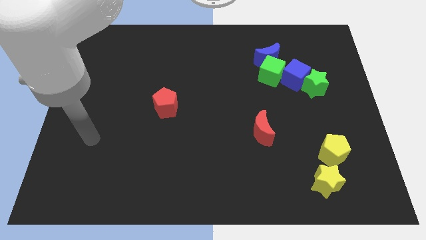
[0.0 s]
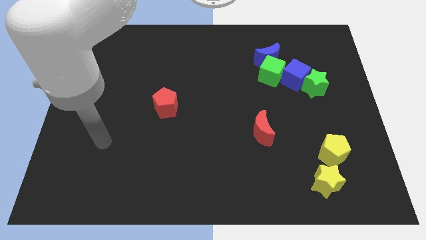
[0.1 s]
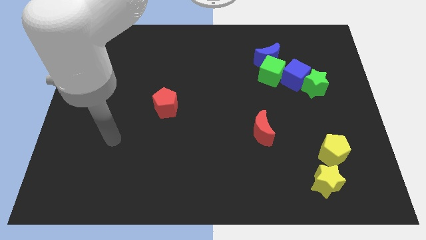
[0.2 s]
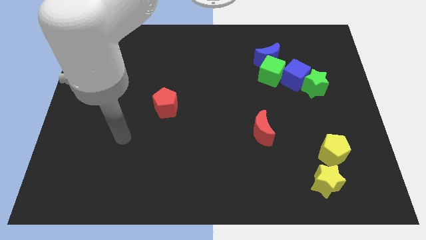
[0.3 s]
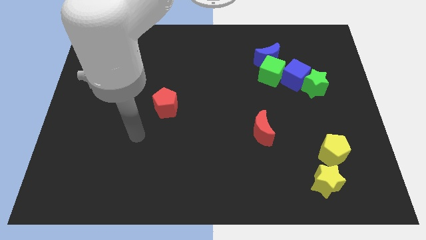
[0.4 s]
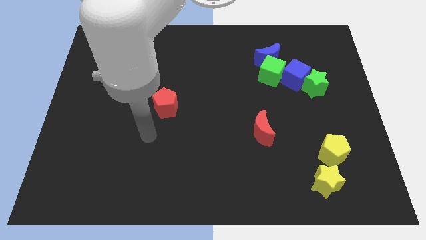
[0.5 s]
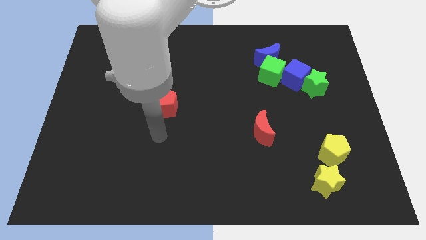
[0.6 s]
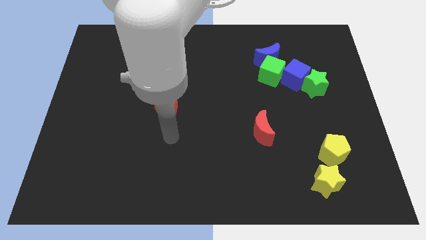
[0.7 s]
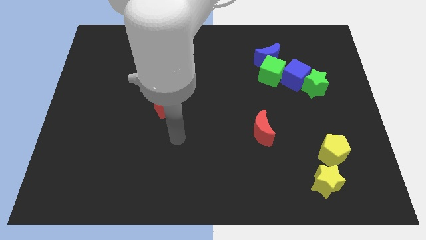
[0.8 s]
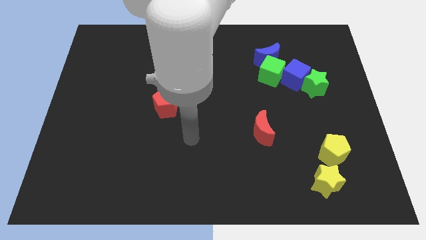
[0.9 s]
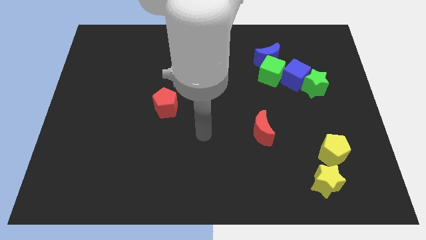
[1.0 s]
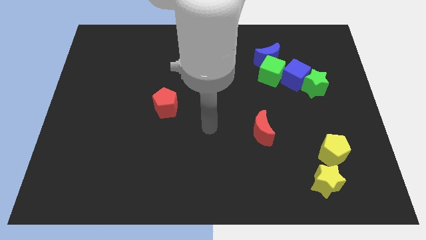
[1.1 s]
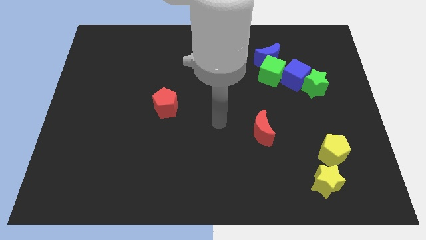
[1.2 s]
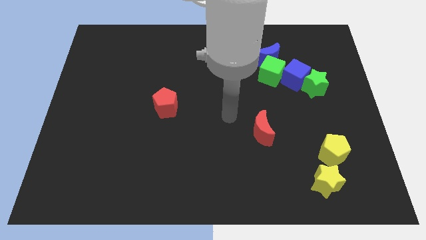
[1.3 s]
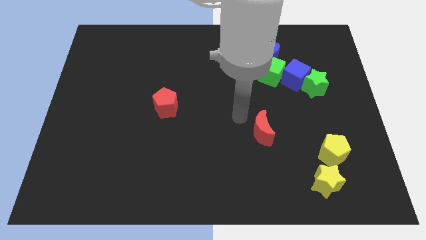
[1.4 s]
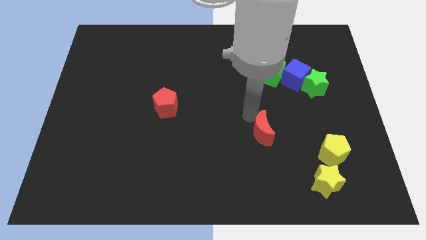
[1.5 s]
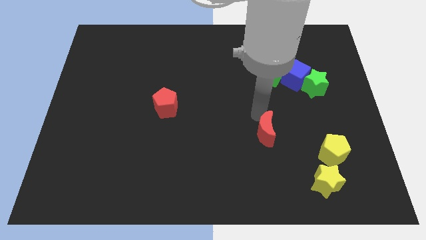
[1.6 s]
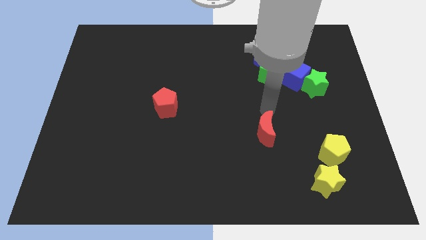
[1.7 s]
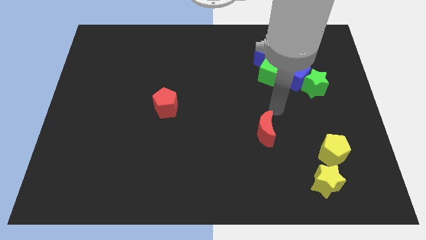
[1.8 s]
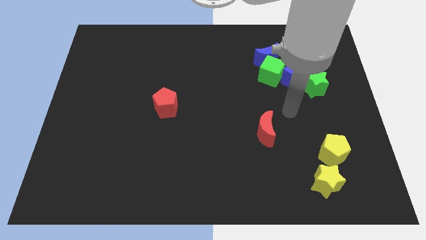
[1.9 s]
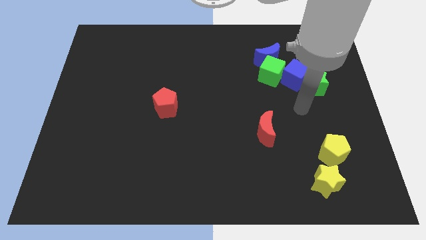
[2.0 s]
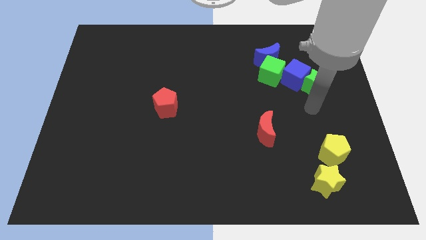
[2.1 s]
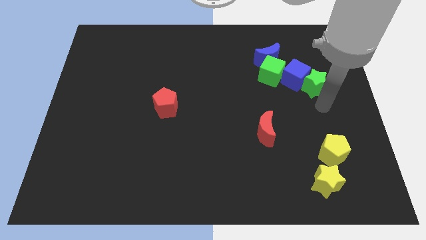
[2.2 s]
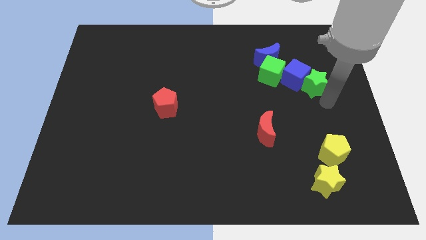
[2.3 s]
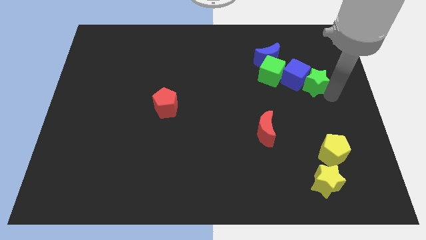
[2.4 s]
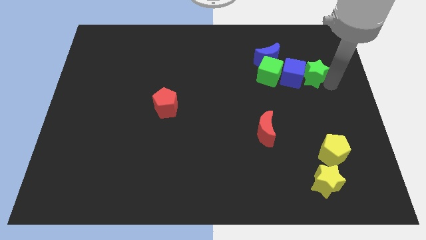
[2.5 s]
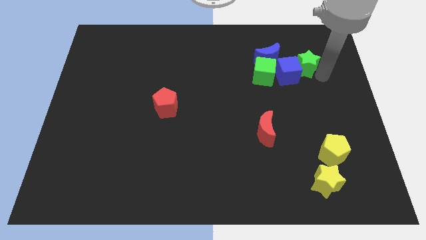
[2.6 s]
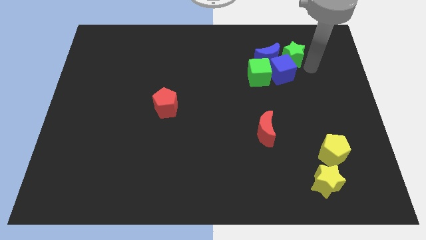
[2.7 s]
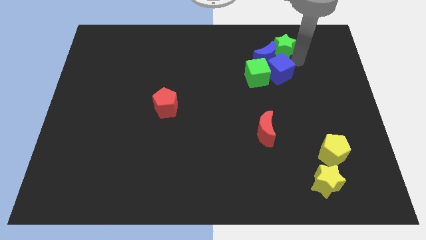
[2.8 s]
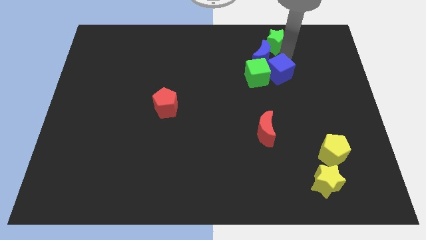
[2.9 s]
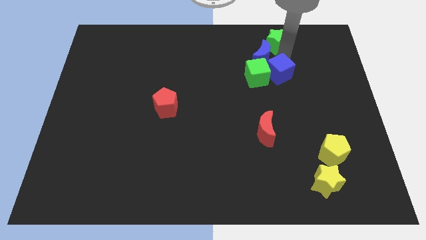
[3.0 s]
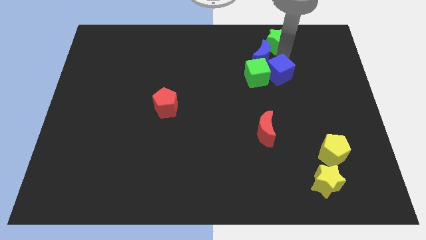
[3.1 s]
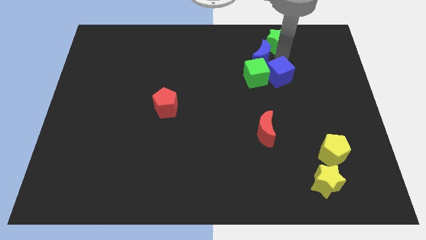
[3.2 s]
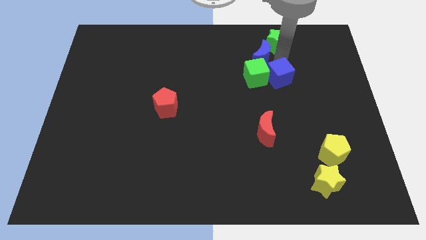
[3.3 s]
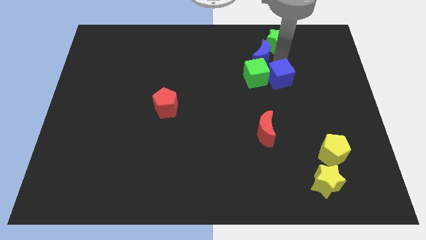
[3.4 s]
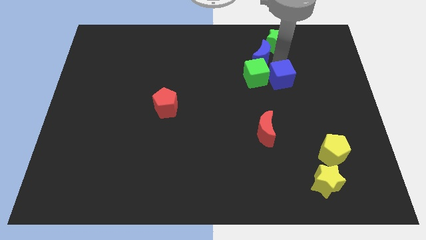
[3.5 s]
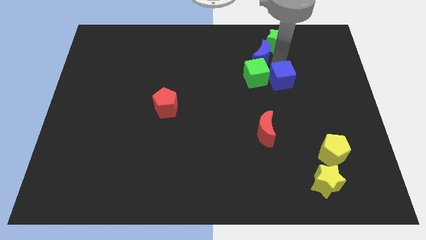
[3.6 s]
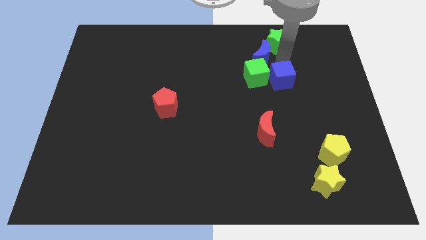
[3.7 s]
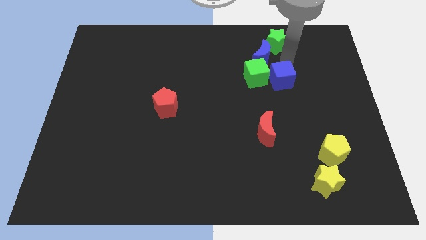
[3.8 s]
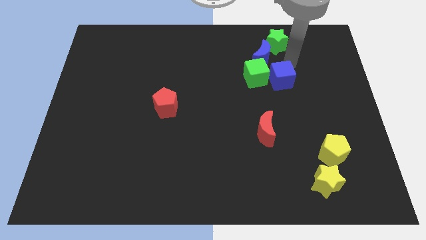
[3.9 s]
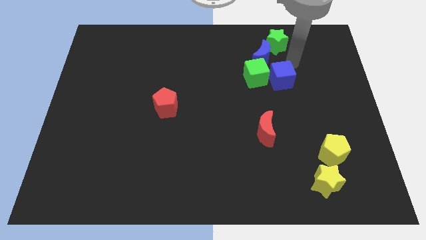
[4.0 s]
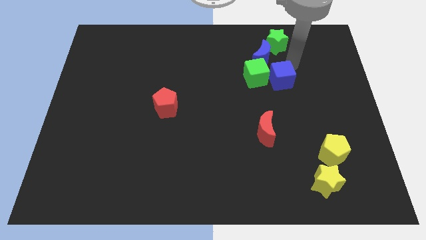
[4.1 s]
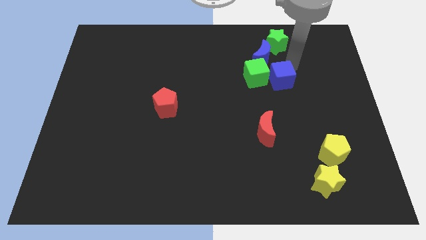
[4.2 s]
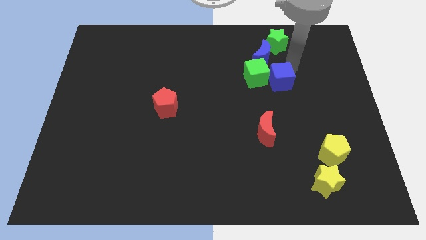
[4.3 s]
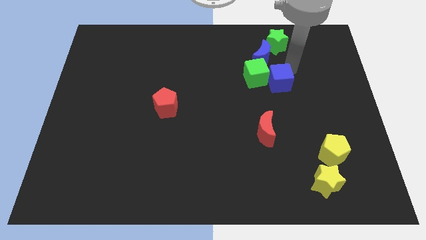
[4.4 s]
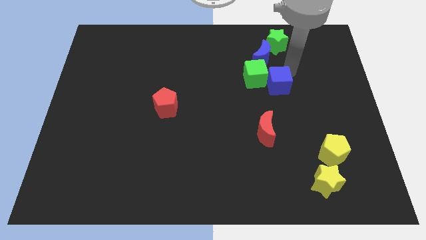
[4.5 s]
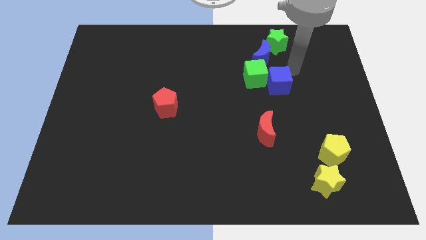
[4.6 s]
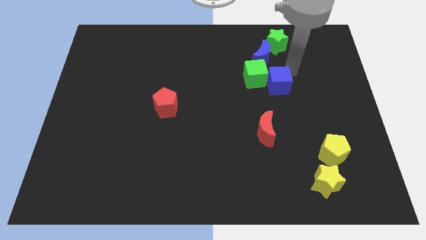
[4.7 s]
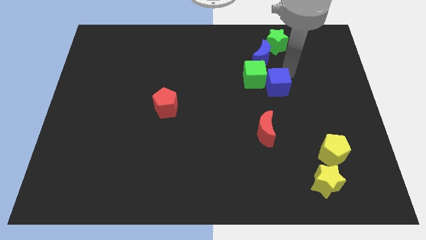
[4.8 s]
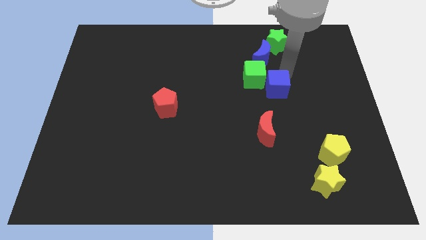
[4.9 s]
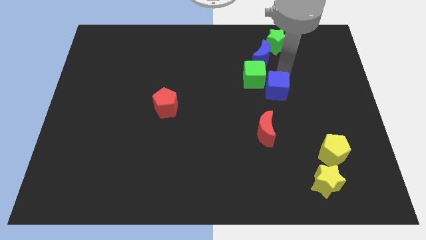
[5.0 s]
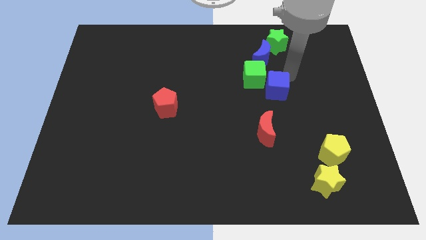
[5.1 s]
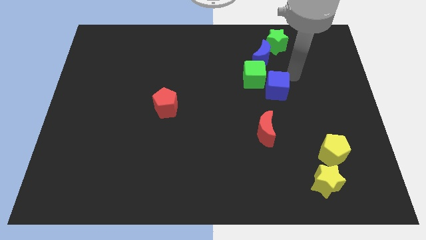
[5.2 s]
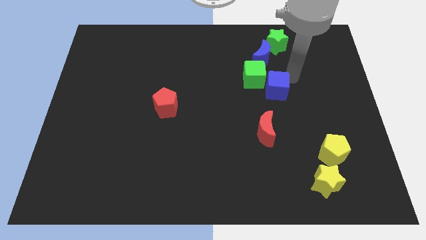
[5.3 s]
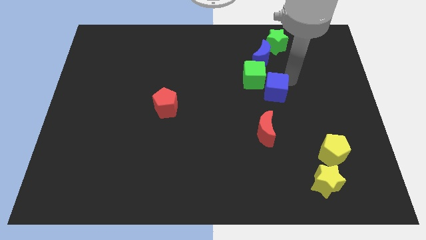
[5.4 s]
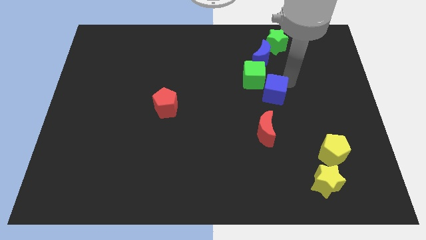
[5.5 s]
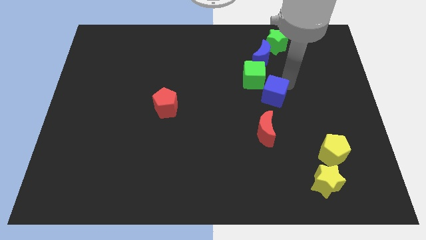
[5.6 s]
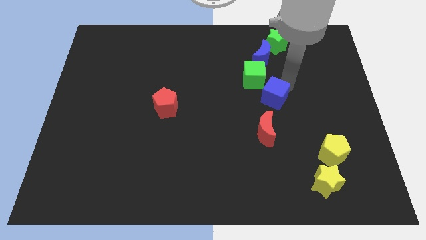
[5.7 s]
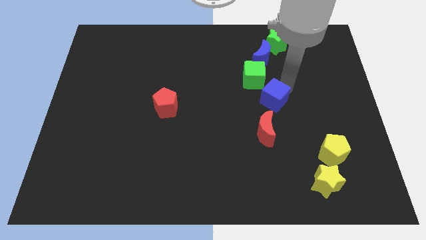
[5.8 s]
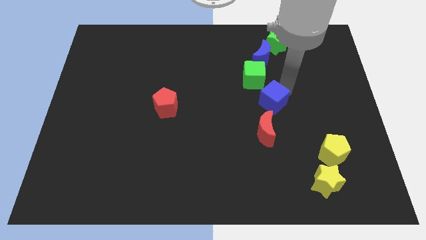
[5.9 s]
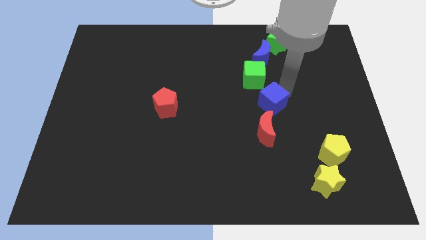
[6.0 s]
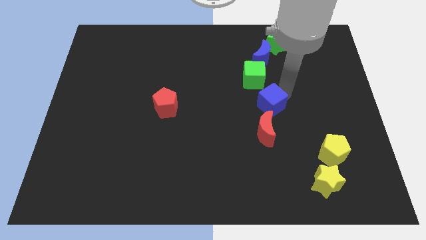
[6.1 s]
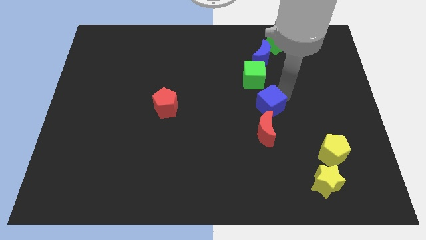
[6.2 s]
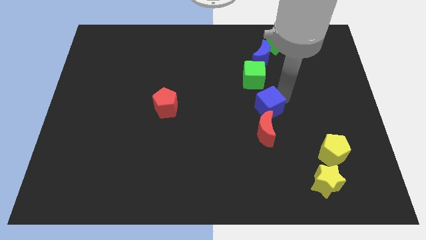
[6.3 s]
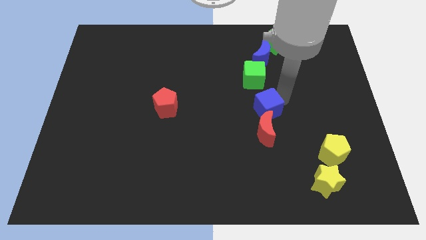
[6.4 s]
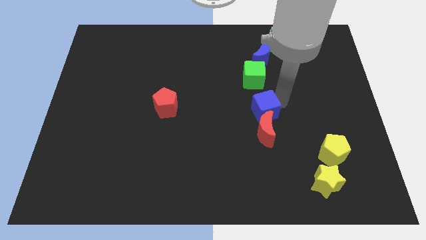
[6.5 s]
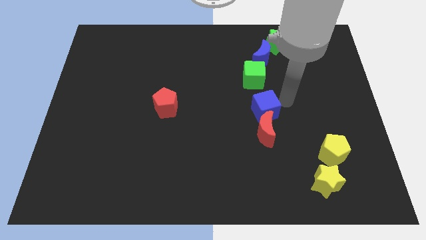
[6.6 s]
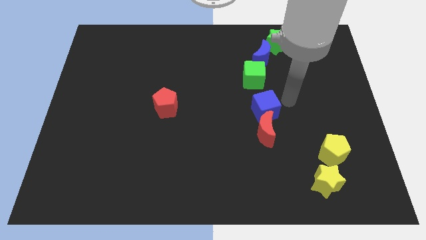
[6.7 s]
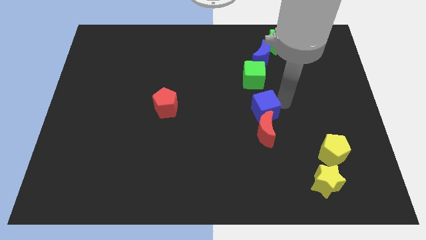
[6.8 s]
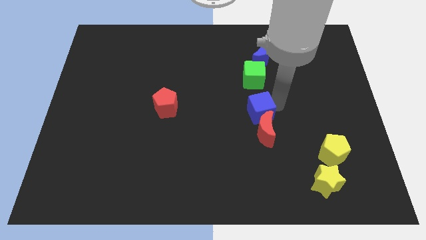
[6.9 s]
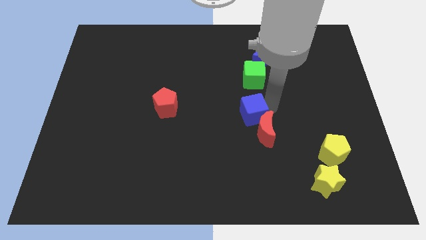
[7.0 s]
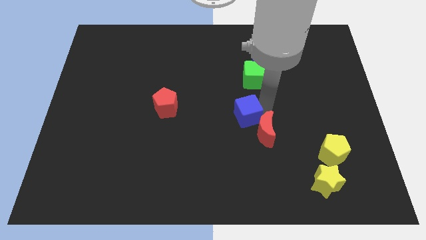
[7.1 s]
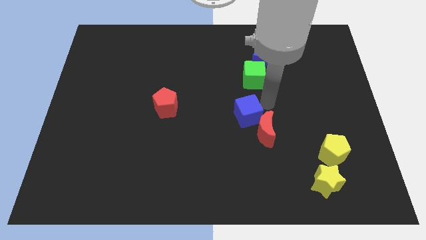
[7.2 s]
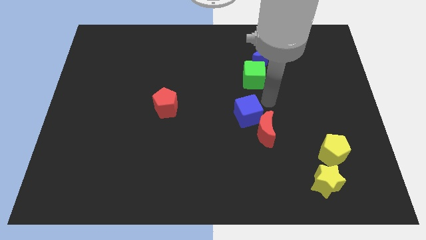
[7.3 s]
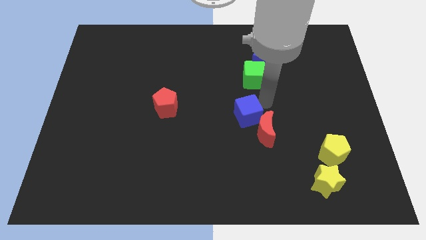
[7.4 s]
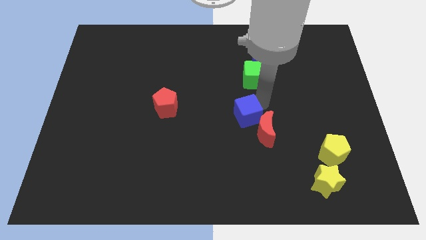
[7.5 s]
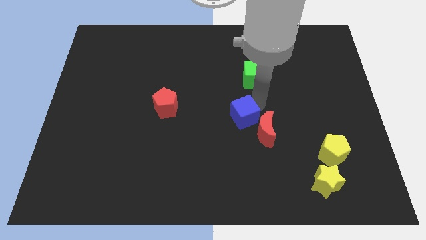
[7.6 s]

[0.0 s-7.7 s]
slide the blue cube to the left side of the red moon
